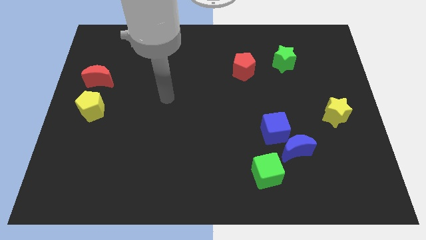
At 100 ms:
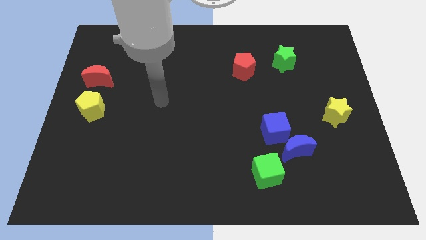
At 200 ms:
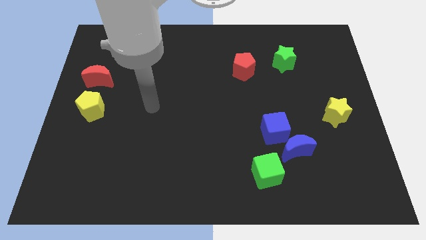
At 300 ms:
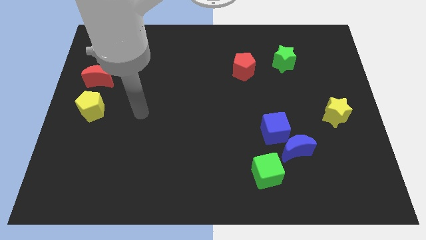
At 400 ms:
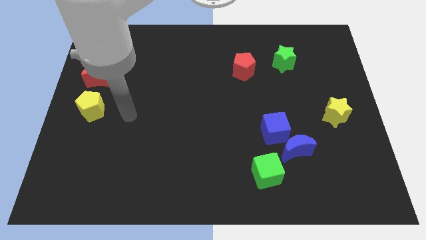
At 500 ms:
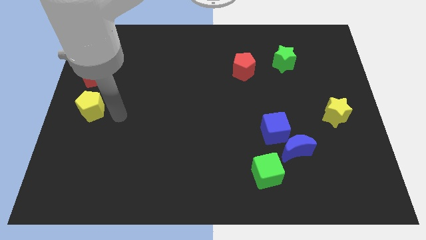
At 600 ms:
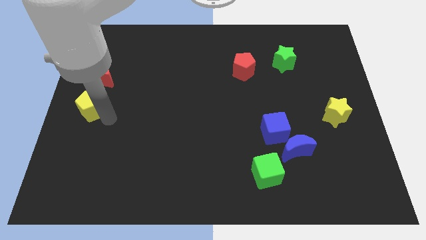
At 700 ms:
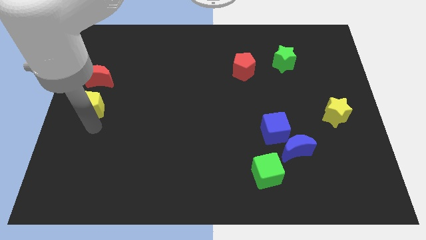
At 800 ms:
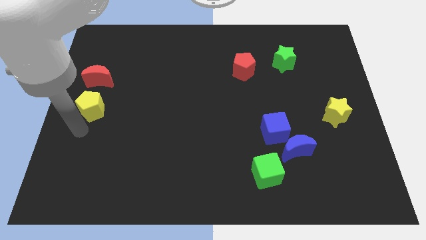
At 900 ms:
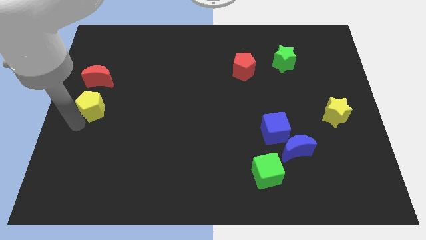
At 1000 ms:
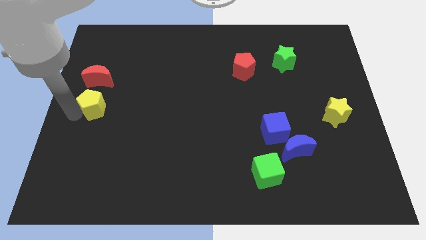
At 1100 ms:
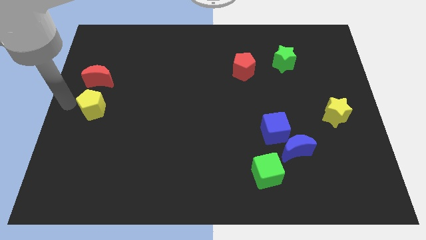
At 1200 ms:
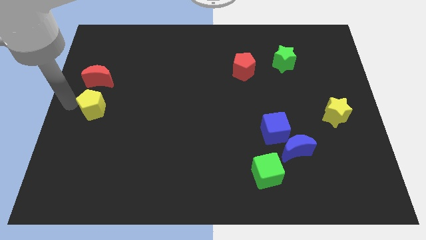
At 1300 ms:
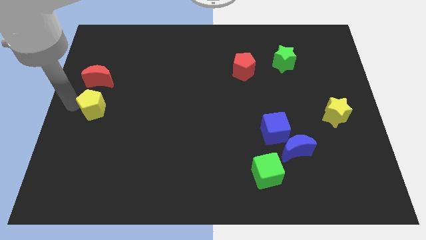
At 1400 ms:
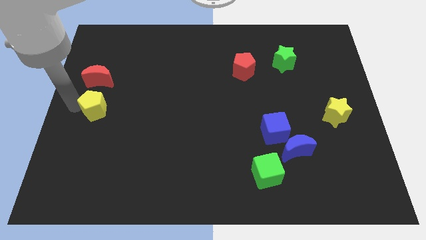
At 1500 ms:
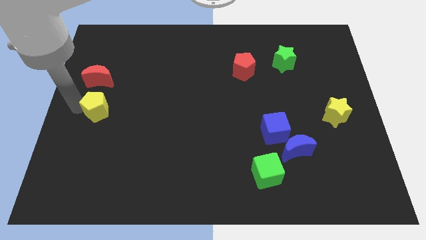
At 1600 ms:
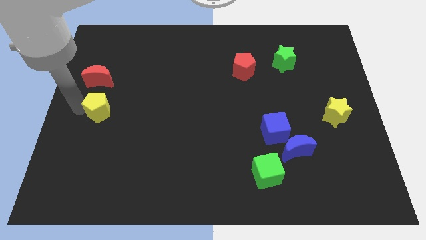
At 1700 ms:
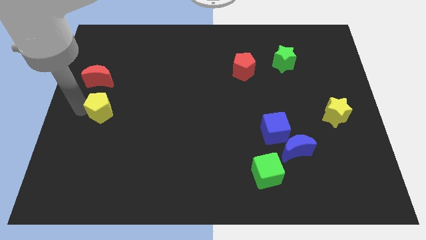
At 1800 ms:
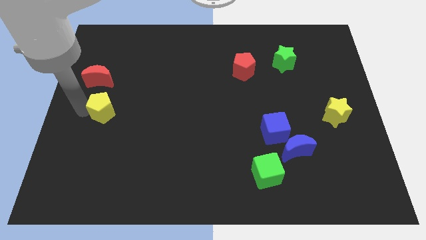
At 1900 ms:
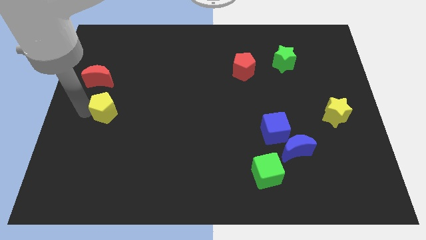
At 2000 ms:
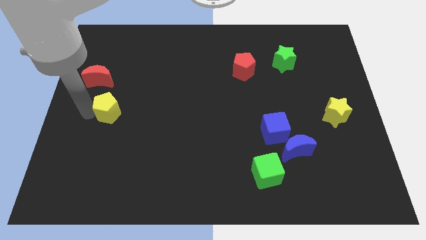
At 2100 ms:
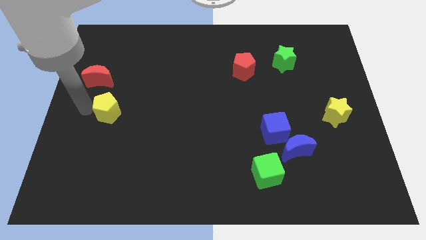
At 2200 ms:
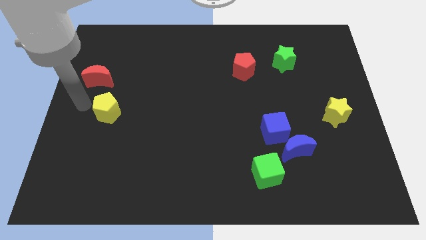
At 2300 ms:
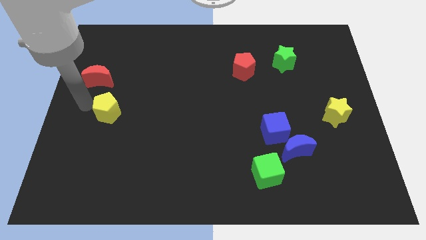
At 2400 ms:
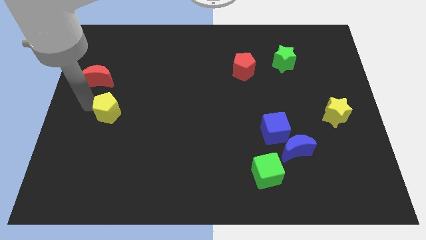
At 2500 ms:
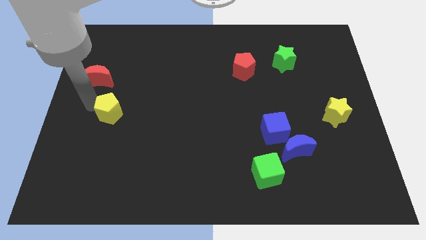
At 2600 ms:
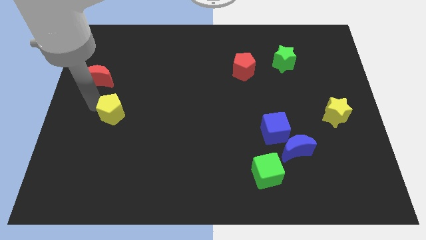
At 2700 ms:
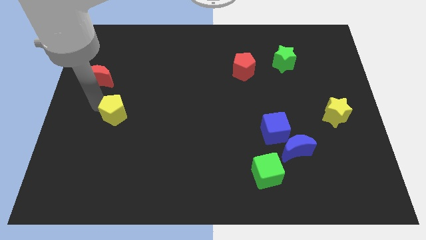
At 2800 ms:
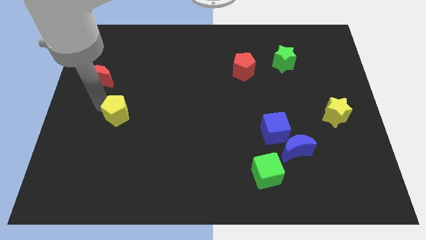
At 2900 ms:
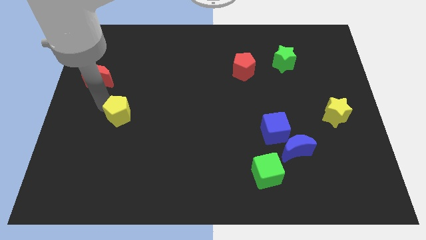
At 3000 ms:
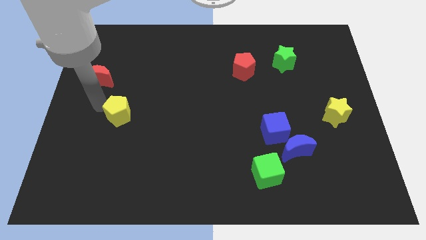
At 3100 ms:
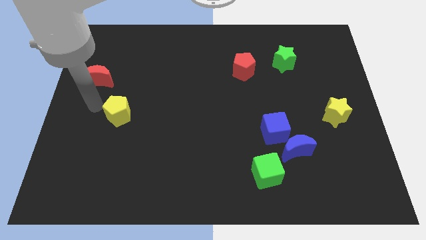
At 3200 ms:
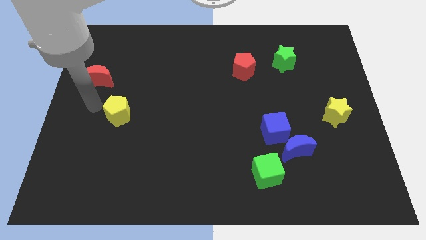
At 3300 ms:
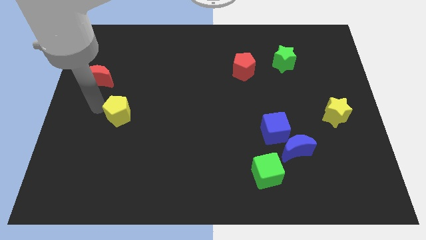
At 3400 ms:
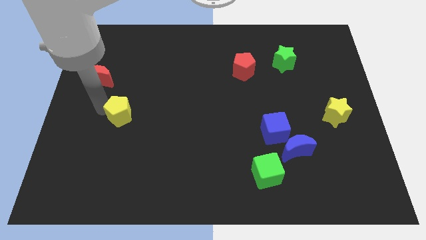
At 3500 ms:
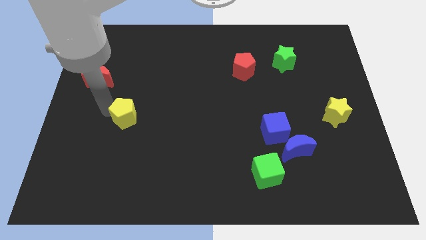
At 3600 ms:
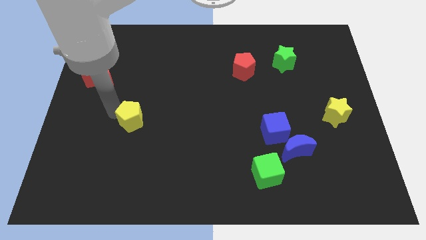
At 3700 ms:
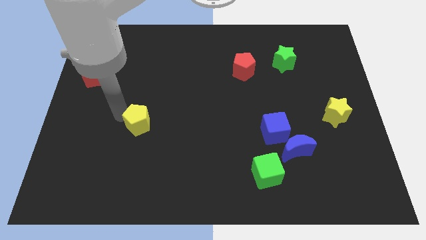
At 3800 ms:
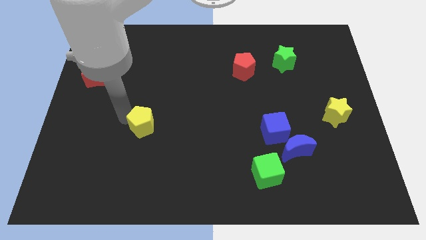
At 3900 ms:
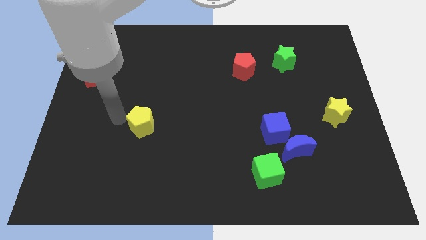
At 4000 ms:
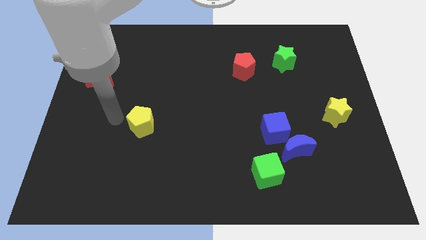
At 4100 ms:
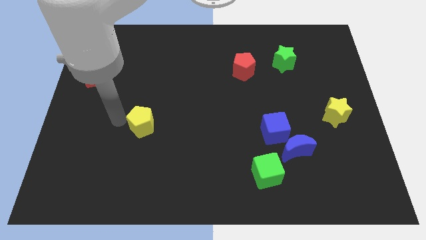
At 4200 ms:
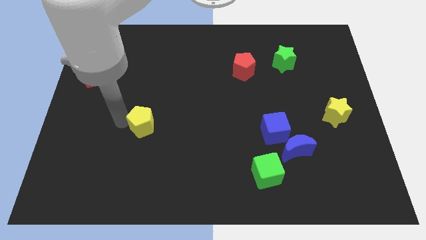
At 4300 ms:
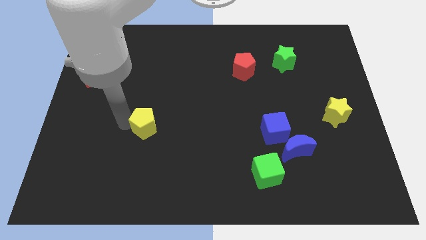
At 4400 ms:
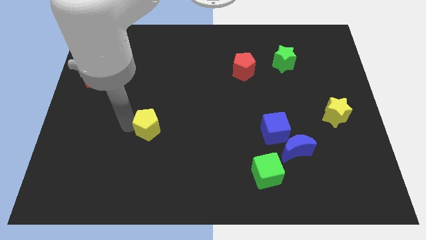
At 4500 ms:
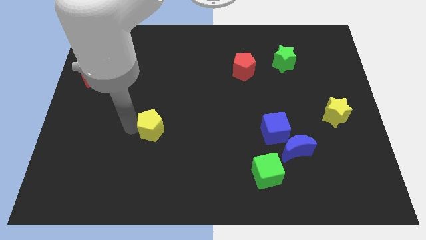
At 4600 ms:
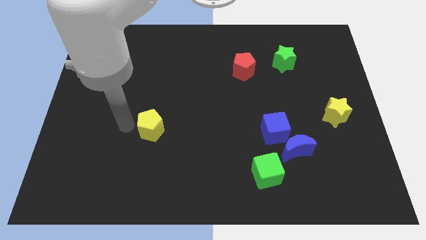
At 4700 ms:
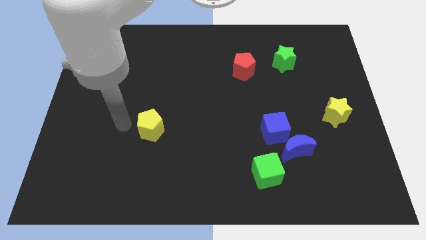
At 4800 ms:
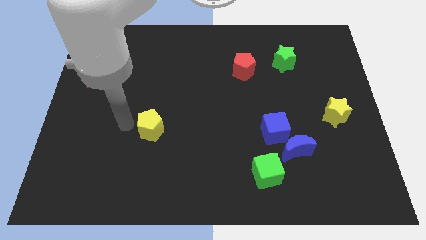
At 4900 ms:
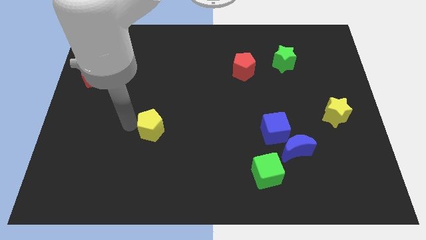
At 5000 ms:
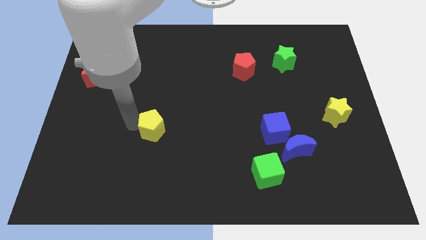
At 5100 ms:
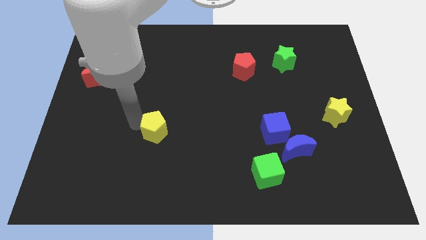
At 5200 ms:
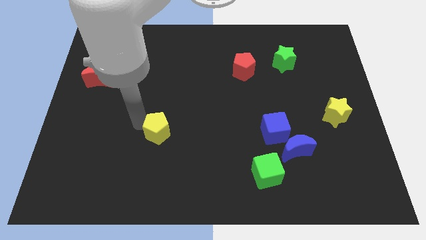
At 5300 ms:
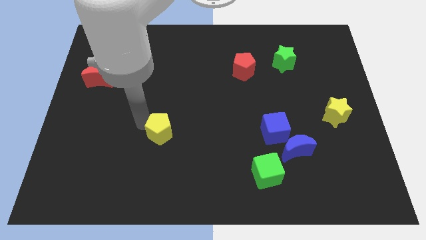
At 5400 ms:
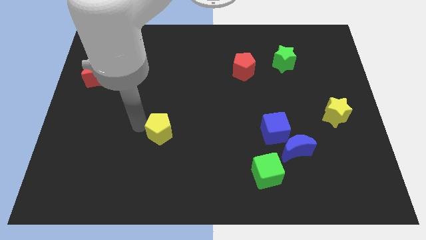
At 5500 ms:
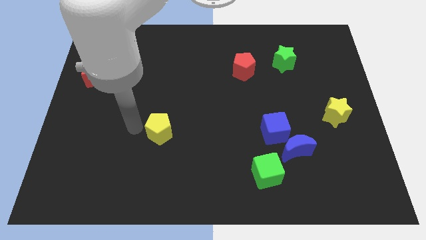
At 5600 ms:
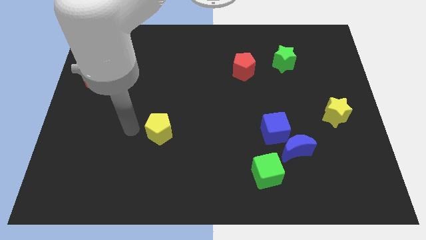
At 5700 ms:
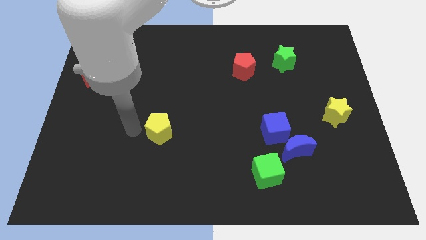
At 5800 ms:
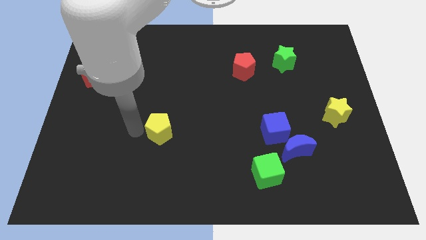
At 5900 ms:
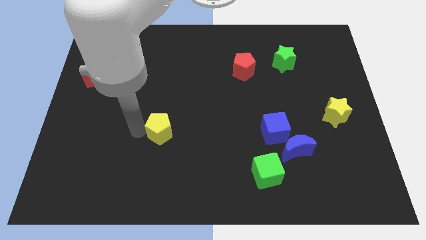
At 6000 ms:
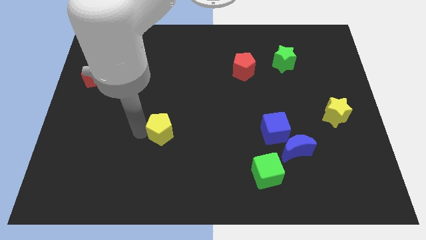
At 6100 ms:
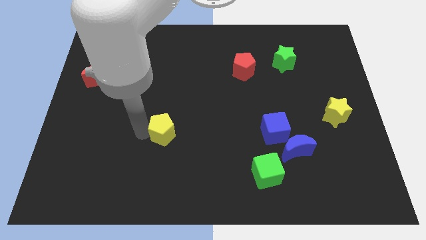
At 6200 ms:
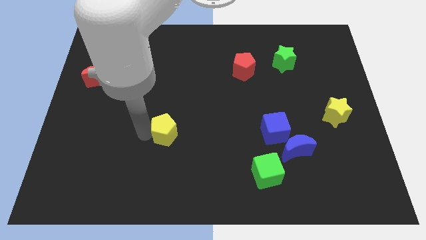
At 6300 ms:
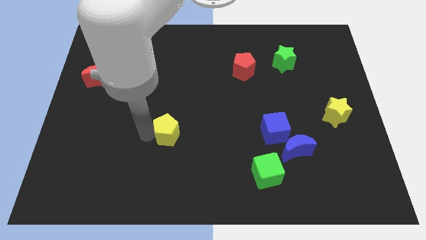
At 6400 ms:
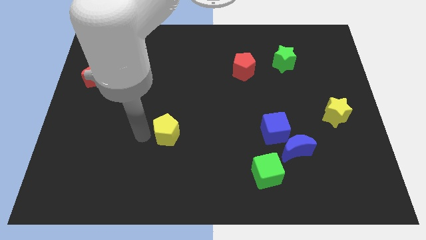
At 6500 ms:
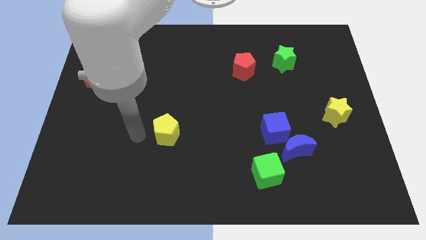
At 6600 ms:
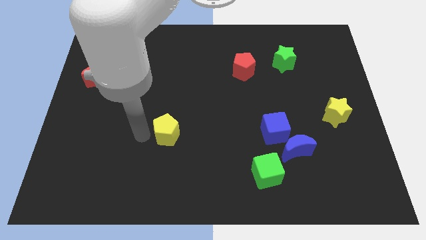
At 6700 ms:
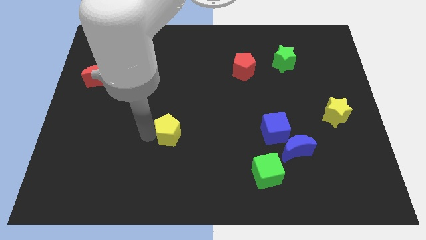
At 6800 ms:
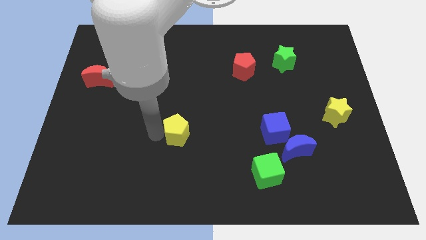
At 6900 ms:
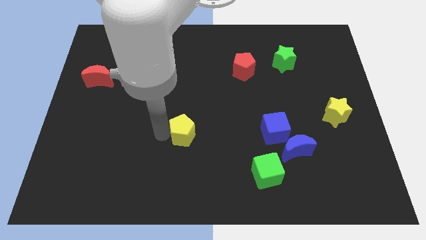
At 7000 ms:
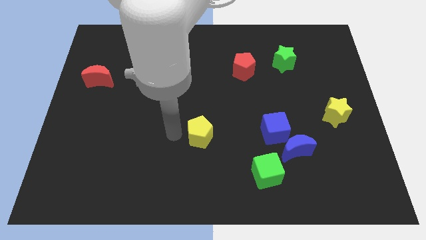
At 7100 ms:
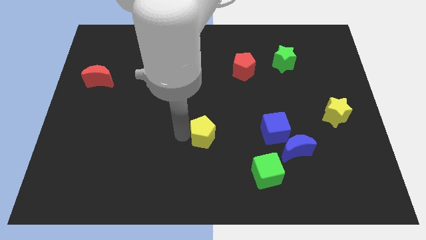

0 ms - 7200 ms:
move the yellow pentagon just left of the blue cube
